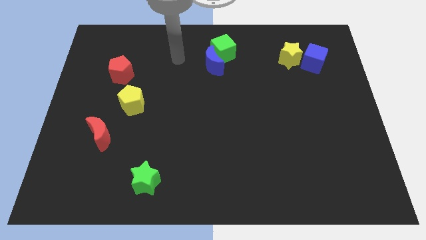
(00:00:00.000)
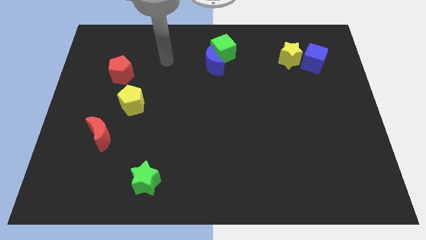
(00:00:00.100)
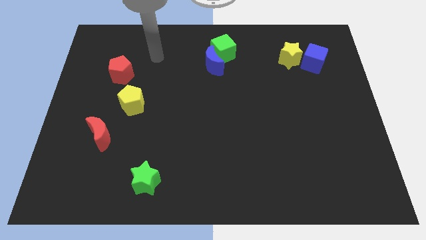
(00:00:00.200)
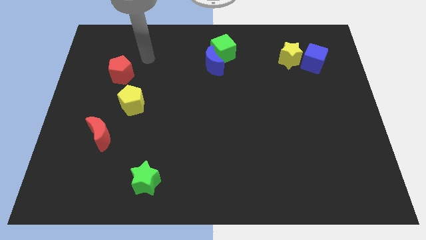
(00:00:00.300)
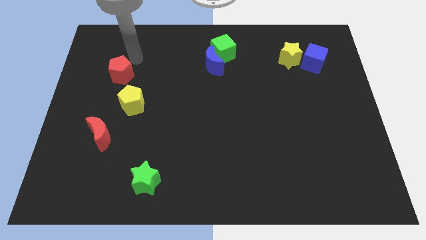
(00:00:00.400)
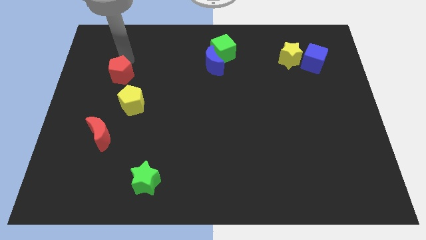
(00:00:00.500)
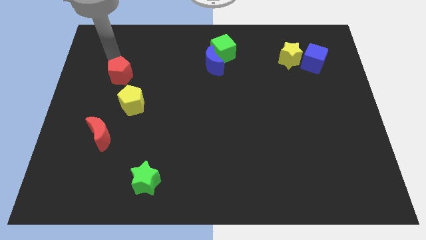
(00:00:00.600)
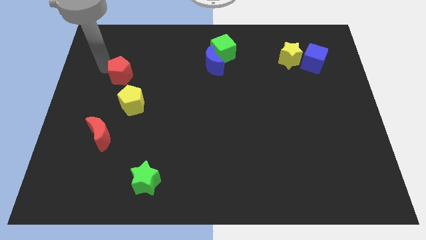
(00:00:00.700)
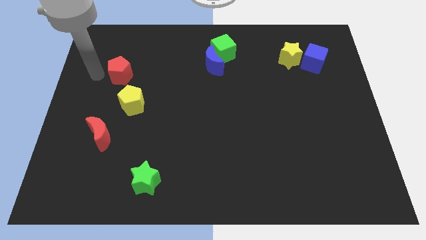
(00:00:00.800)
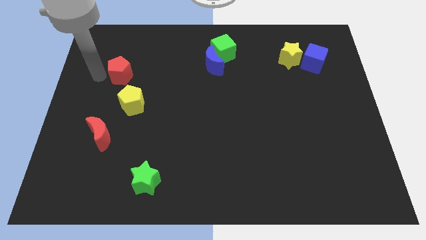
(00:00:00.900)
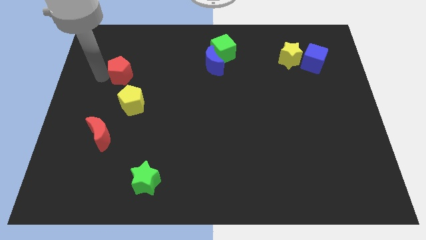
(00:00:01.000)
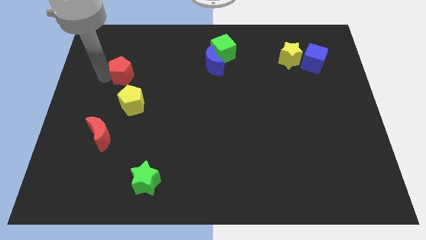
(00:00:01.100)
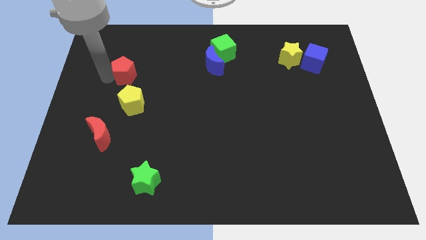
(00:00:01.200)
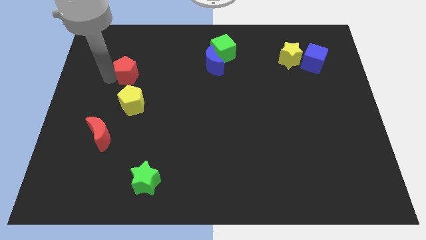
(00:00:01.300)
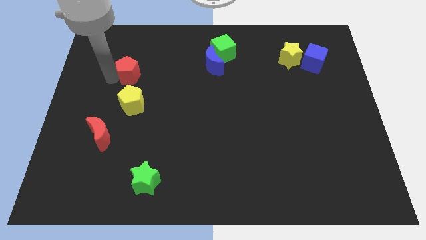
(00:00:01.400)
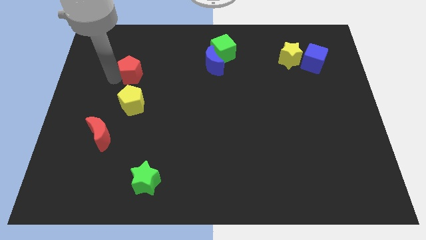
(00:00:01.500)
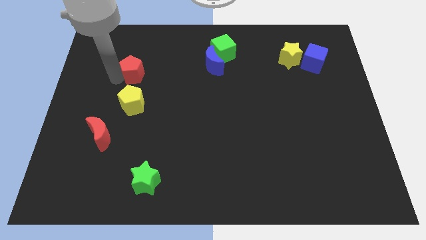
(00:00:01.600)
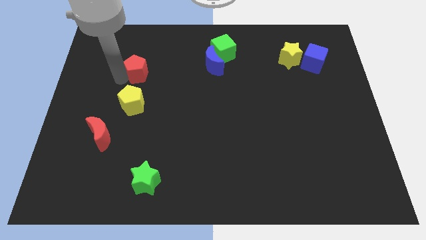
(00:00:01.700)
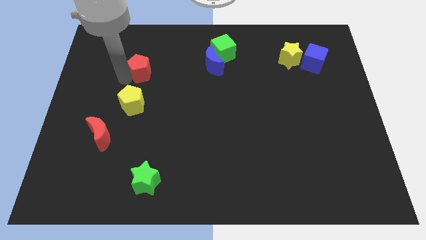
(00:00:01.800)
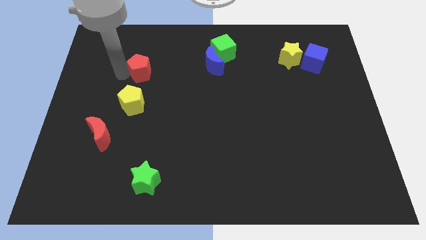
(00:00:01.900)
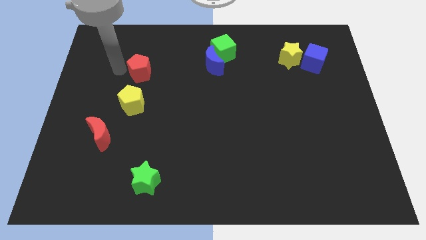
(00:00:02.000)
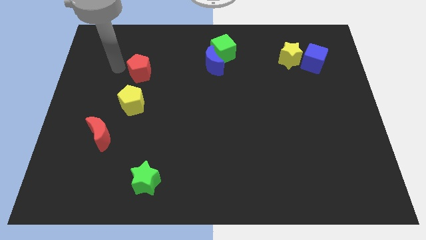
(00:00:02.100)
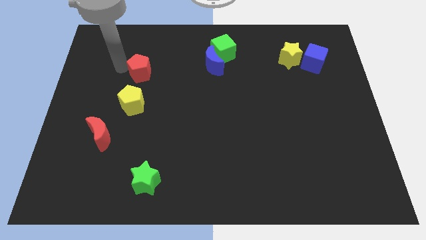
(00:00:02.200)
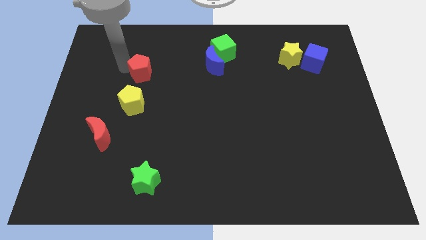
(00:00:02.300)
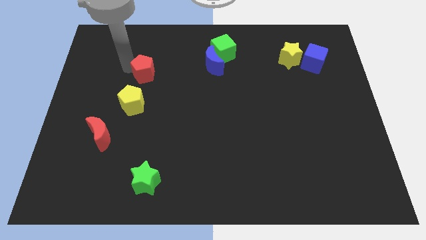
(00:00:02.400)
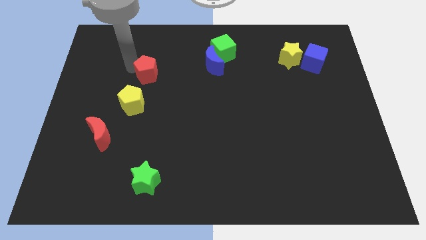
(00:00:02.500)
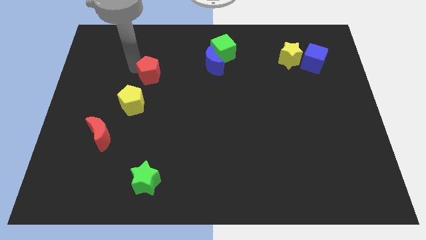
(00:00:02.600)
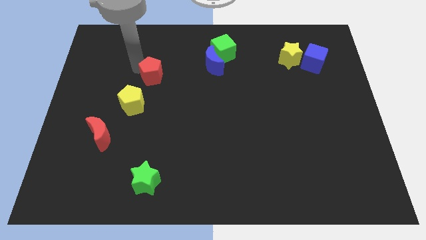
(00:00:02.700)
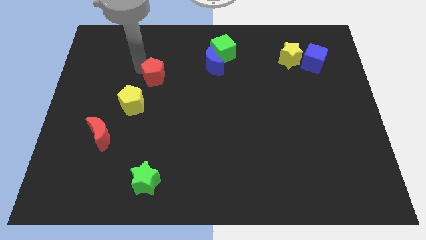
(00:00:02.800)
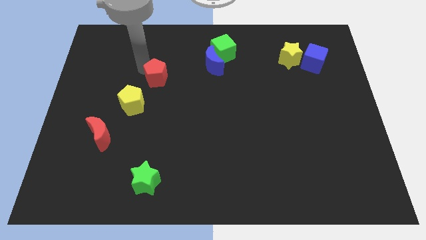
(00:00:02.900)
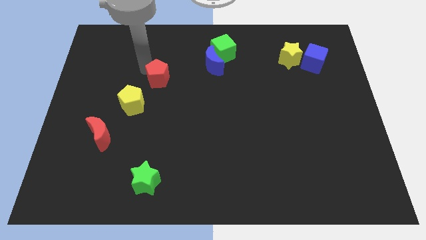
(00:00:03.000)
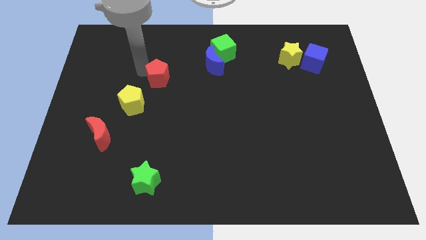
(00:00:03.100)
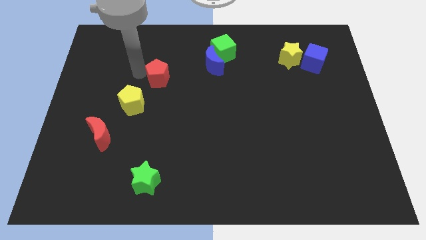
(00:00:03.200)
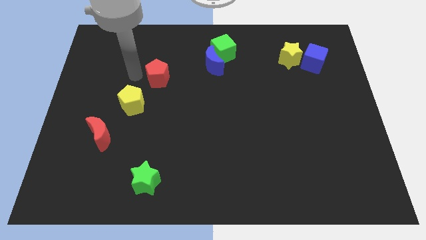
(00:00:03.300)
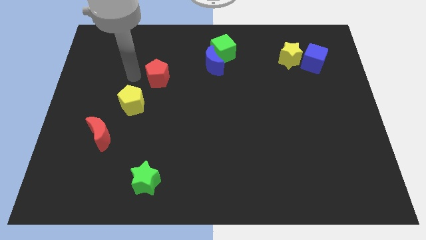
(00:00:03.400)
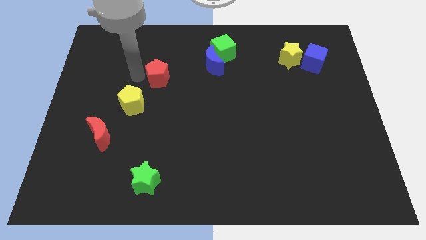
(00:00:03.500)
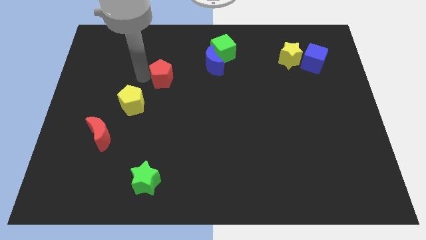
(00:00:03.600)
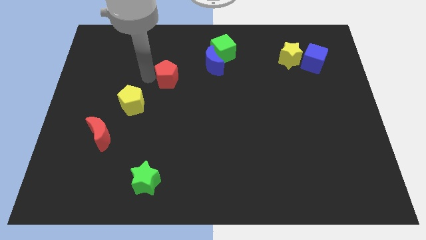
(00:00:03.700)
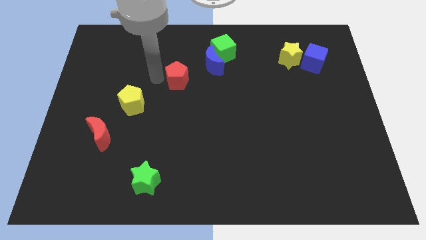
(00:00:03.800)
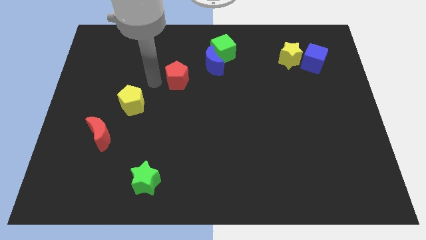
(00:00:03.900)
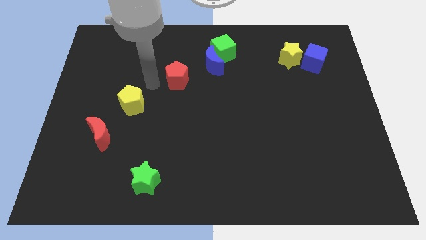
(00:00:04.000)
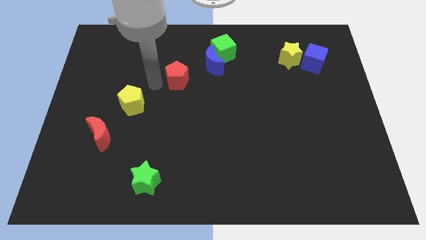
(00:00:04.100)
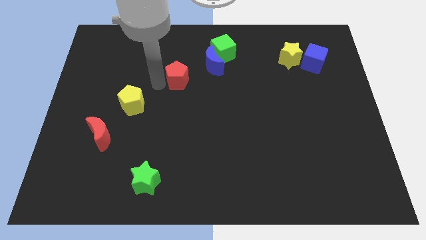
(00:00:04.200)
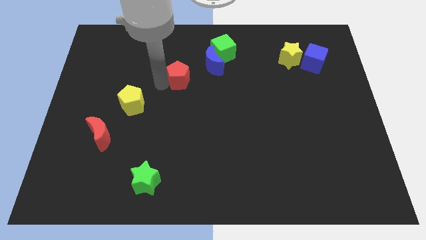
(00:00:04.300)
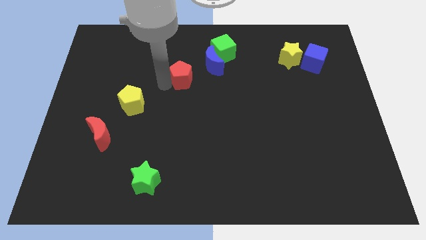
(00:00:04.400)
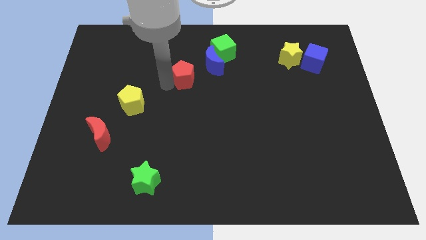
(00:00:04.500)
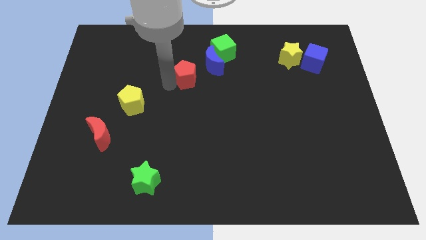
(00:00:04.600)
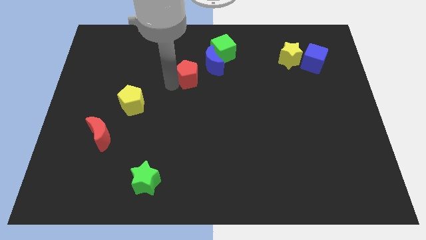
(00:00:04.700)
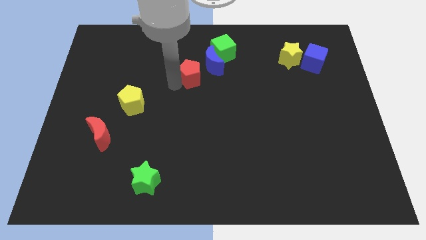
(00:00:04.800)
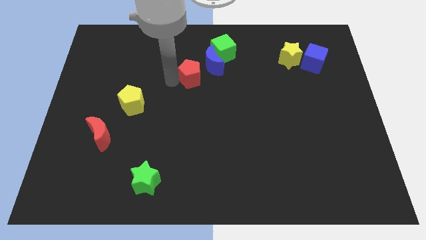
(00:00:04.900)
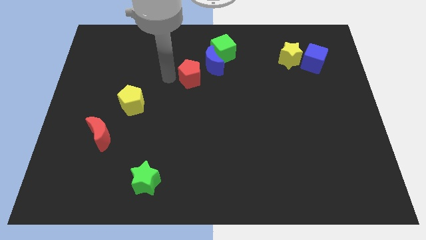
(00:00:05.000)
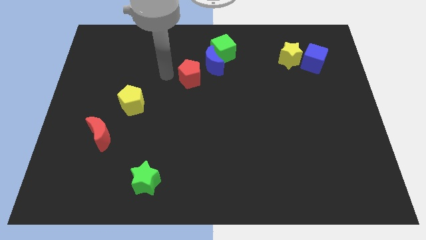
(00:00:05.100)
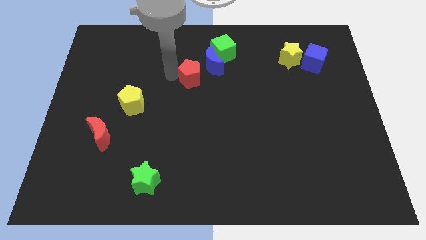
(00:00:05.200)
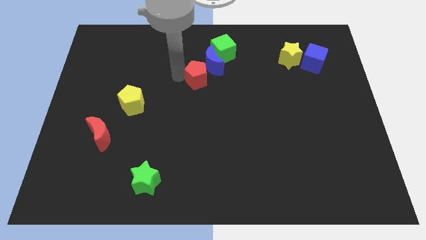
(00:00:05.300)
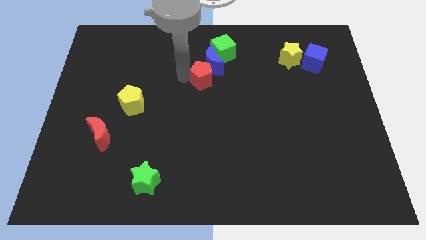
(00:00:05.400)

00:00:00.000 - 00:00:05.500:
push the red pentagon to the right

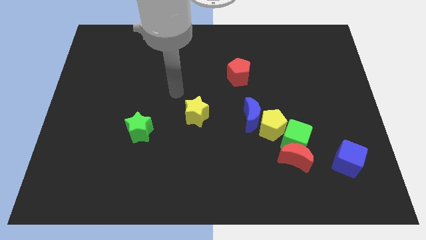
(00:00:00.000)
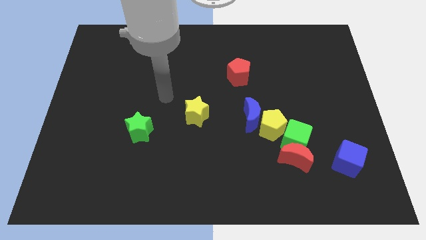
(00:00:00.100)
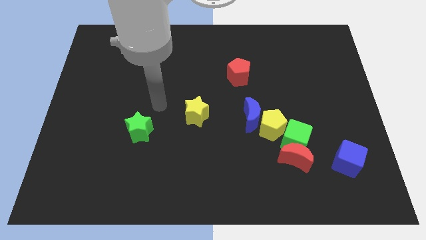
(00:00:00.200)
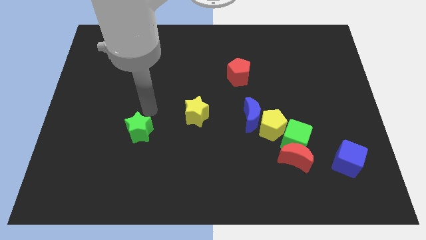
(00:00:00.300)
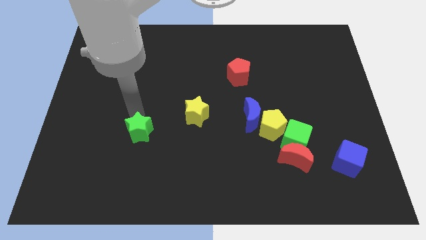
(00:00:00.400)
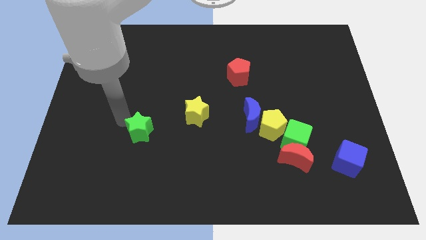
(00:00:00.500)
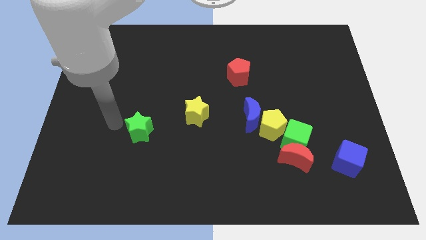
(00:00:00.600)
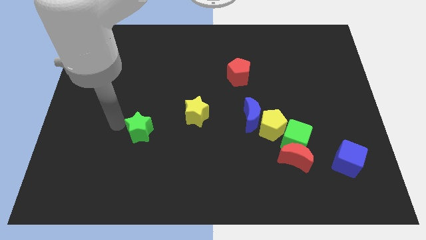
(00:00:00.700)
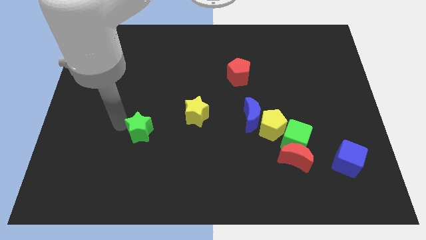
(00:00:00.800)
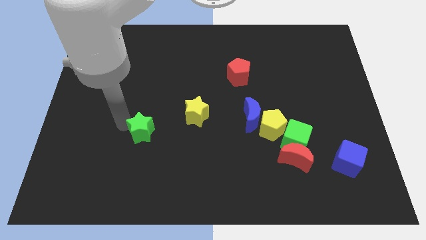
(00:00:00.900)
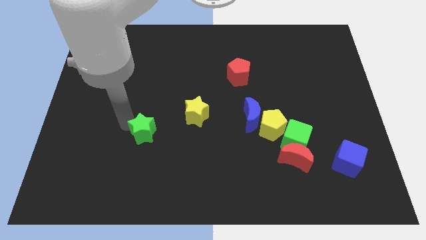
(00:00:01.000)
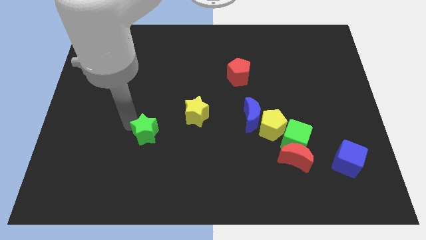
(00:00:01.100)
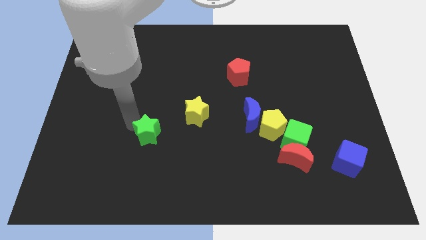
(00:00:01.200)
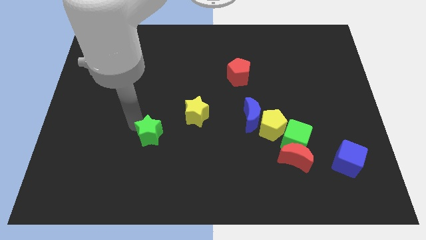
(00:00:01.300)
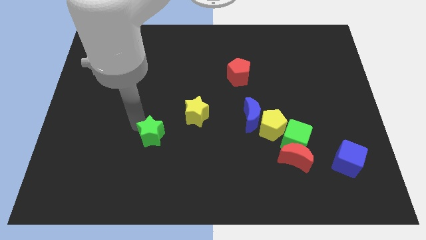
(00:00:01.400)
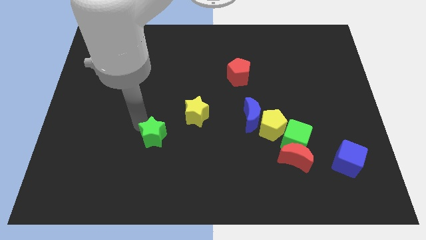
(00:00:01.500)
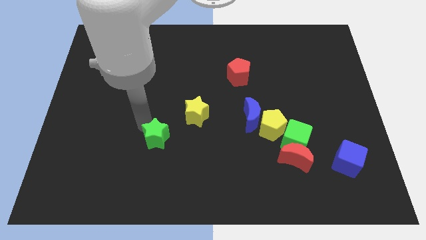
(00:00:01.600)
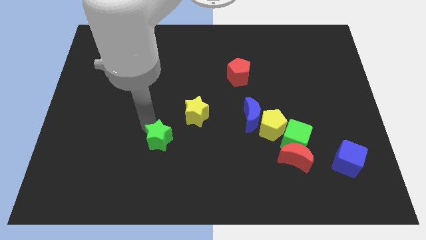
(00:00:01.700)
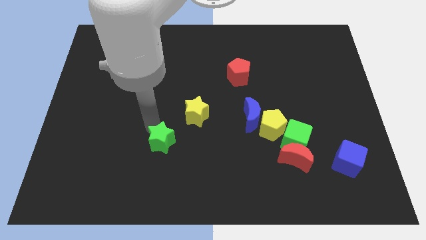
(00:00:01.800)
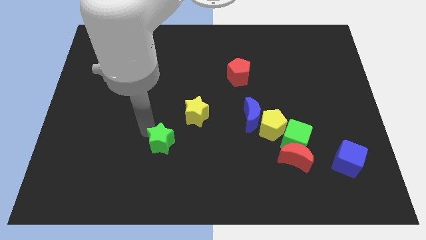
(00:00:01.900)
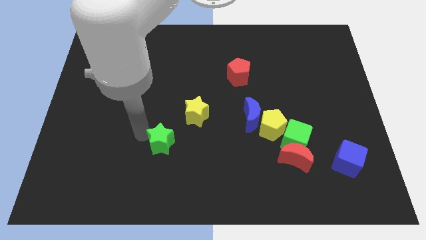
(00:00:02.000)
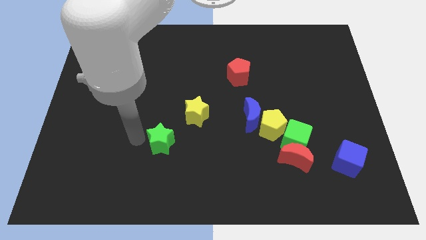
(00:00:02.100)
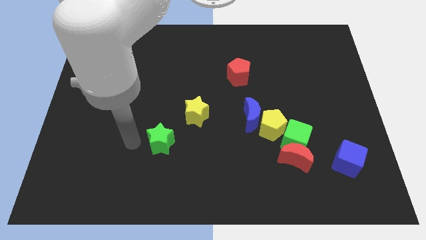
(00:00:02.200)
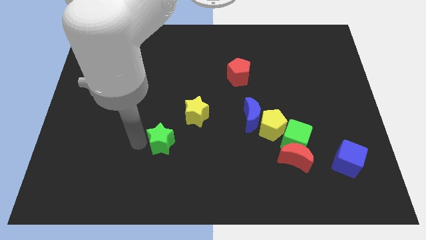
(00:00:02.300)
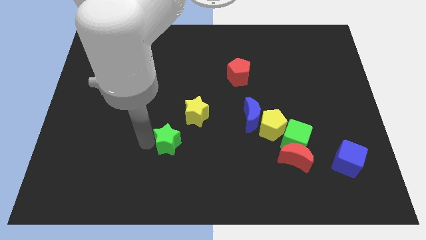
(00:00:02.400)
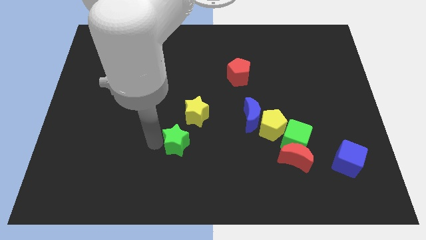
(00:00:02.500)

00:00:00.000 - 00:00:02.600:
slide the green star right a little bit
